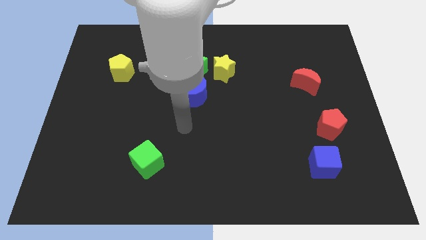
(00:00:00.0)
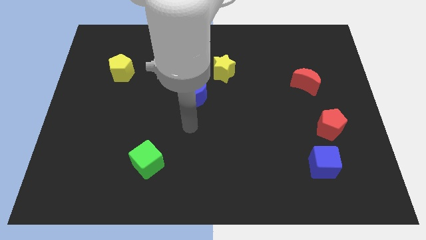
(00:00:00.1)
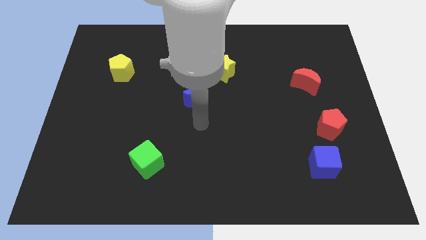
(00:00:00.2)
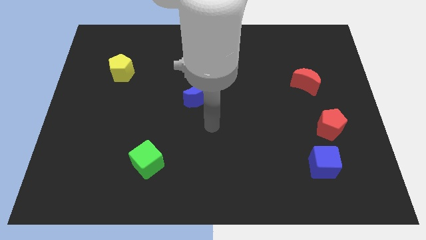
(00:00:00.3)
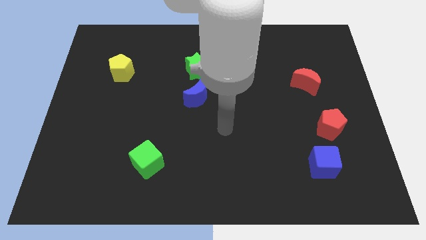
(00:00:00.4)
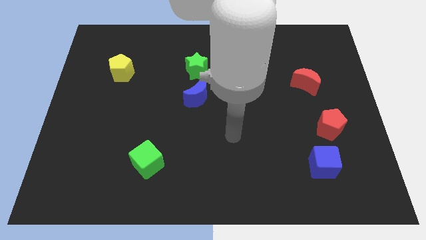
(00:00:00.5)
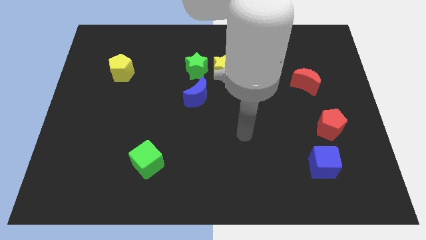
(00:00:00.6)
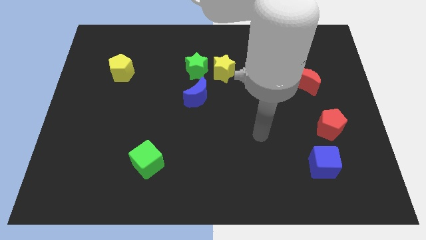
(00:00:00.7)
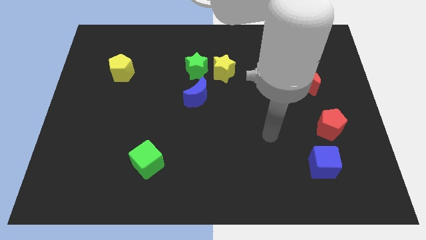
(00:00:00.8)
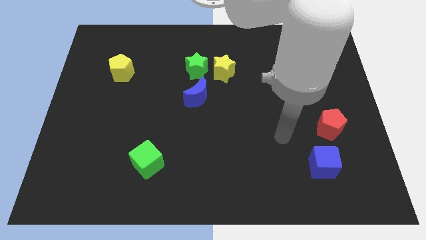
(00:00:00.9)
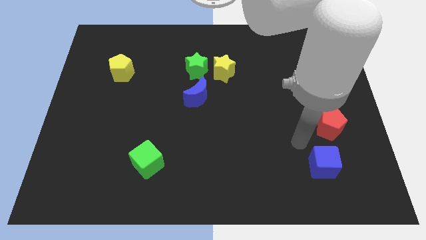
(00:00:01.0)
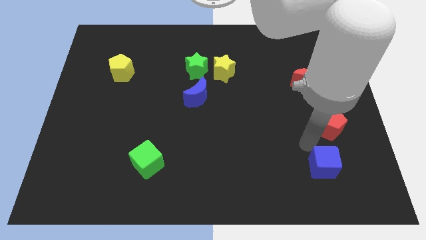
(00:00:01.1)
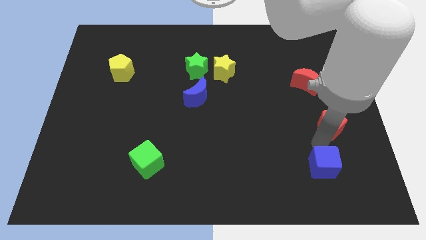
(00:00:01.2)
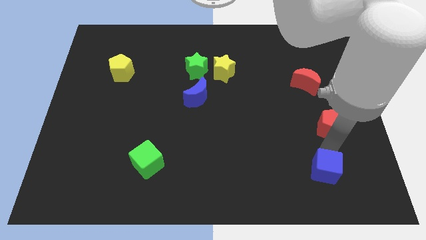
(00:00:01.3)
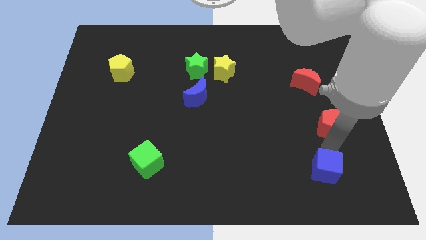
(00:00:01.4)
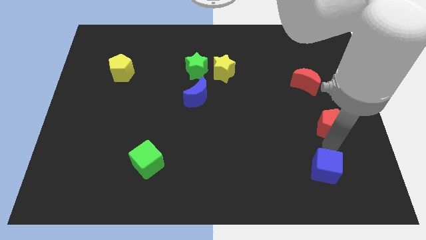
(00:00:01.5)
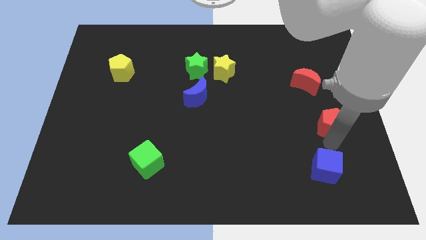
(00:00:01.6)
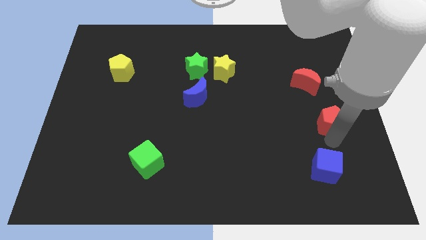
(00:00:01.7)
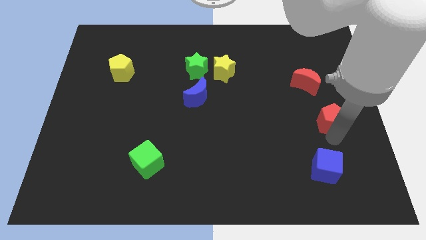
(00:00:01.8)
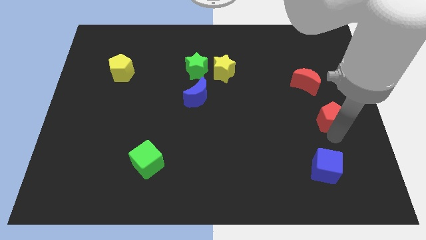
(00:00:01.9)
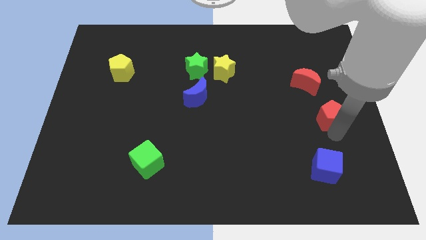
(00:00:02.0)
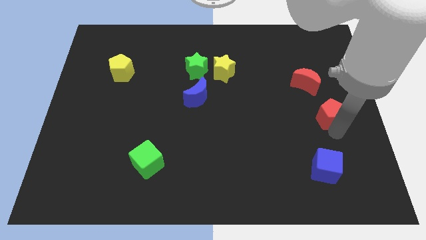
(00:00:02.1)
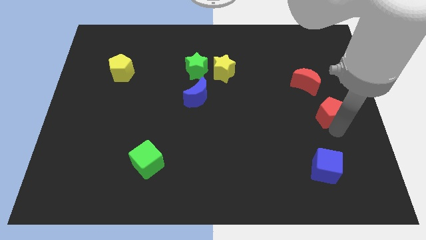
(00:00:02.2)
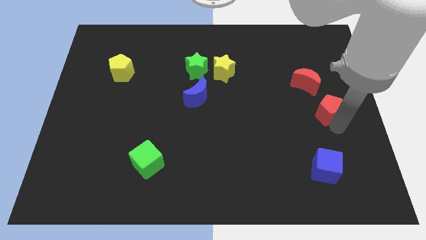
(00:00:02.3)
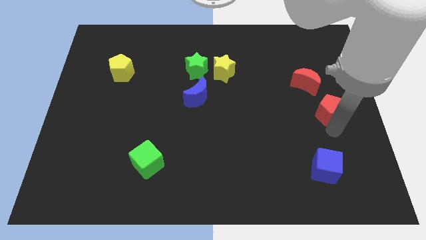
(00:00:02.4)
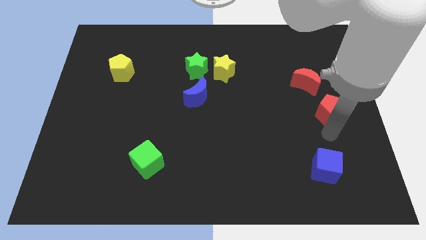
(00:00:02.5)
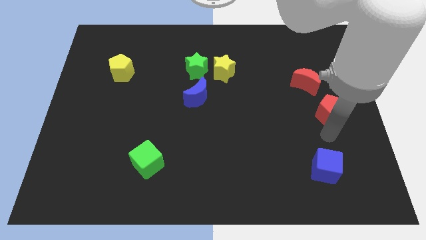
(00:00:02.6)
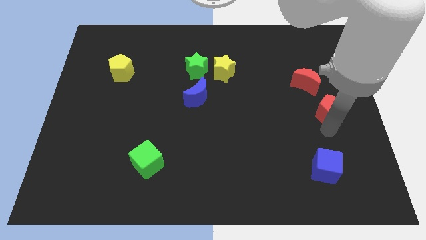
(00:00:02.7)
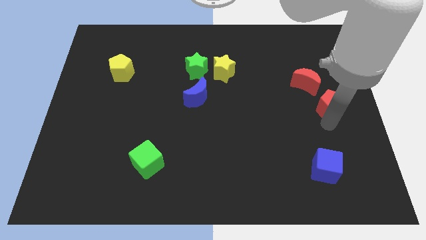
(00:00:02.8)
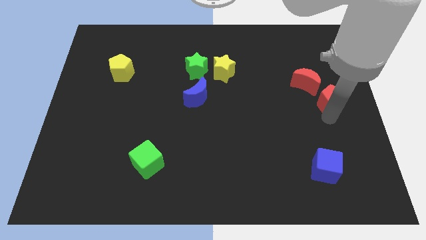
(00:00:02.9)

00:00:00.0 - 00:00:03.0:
slightly move the red pentagon upwards

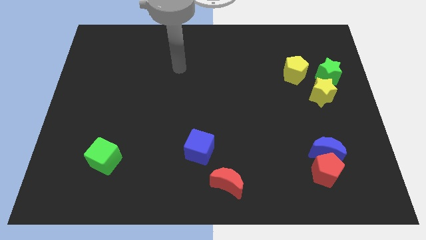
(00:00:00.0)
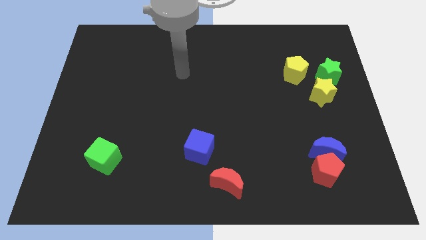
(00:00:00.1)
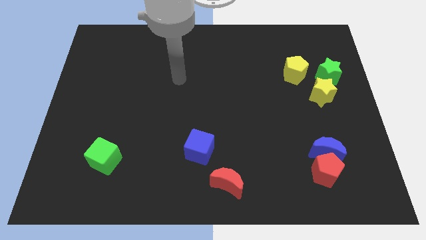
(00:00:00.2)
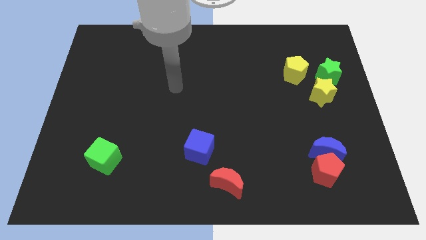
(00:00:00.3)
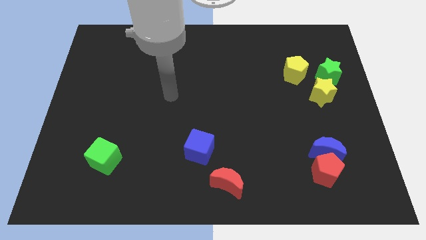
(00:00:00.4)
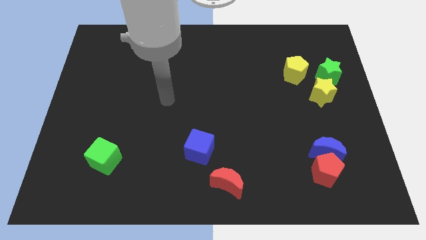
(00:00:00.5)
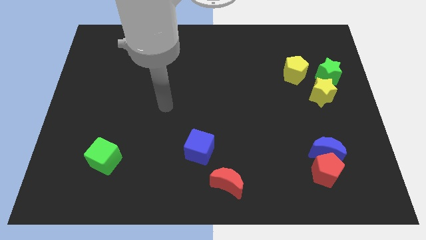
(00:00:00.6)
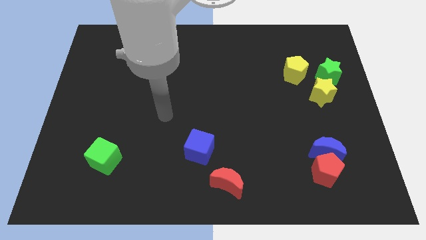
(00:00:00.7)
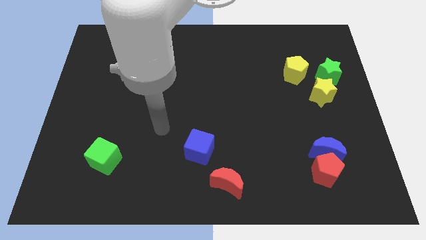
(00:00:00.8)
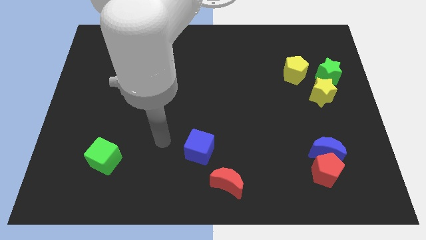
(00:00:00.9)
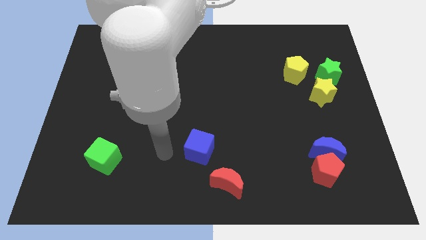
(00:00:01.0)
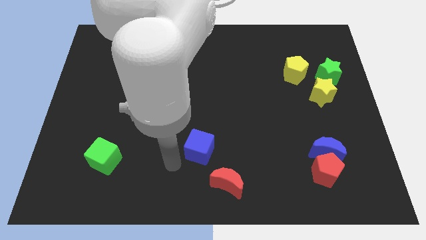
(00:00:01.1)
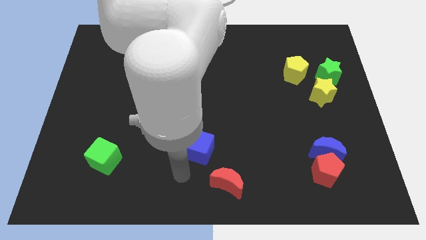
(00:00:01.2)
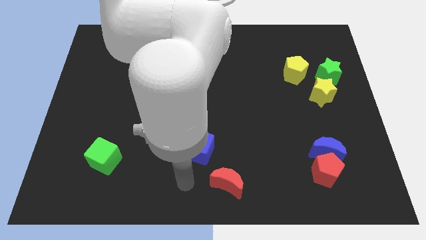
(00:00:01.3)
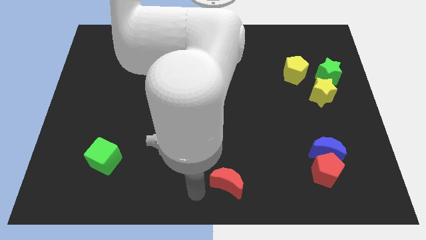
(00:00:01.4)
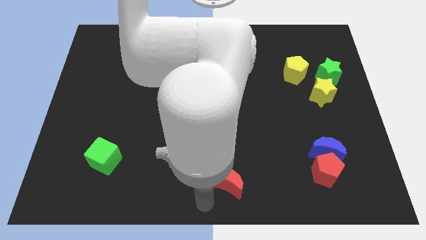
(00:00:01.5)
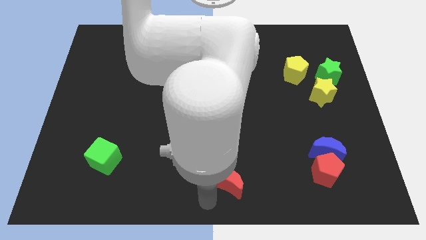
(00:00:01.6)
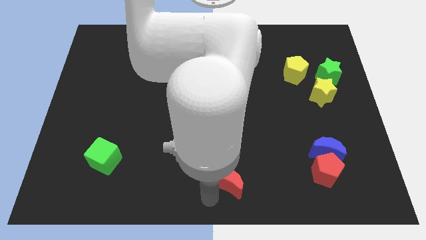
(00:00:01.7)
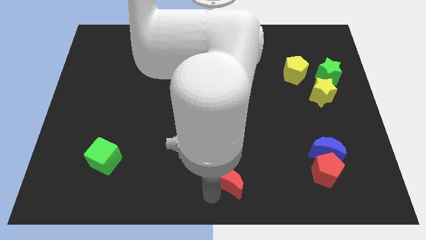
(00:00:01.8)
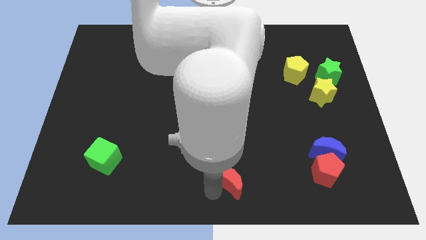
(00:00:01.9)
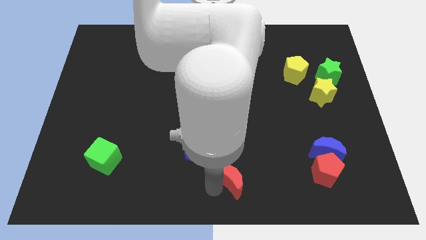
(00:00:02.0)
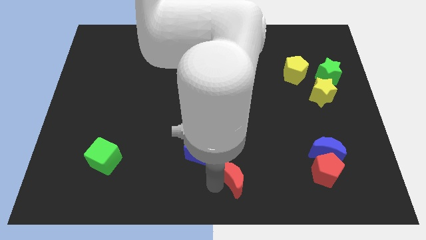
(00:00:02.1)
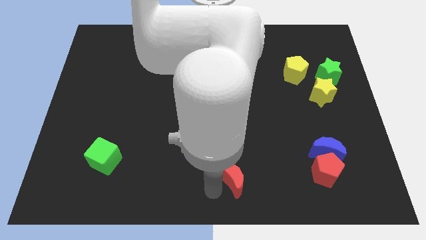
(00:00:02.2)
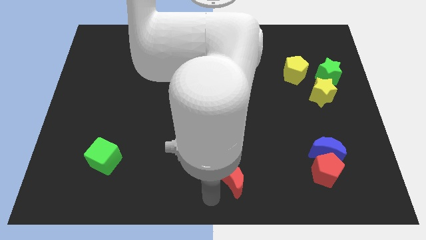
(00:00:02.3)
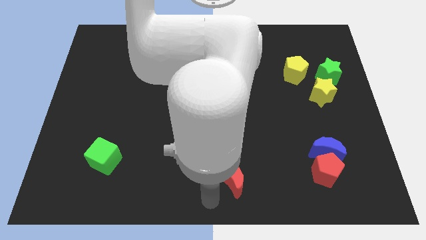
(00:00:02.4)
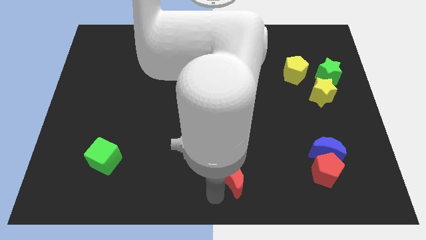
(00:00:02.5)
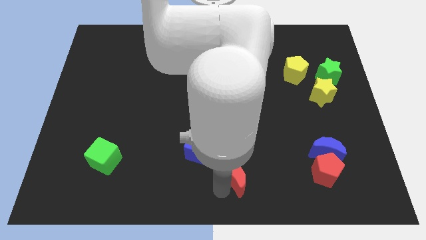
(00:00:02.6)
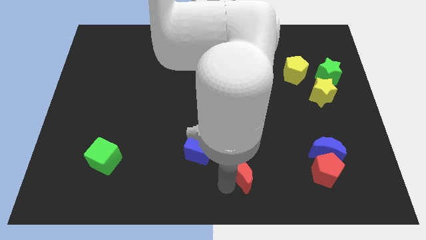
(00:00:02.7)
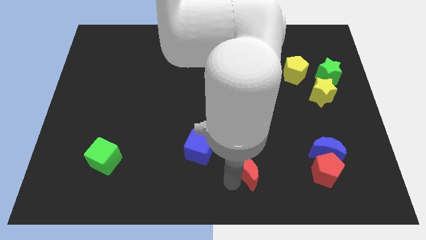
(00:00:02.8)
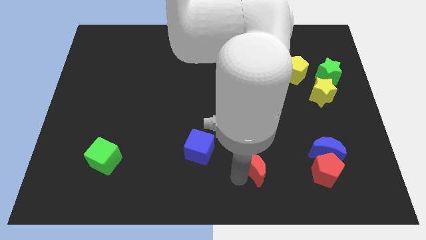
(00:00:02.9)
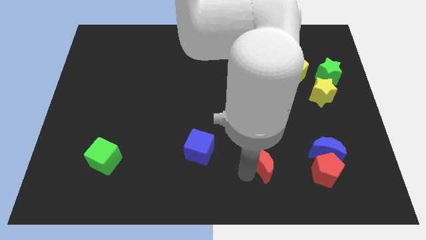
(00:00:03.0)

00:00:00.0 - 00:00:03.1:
slightly move the red moon up and right

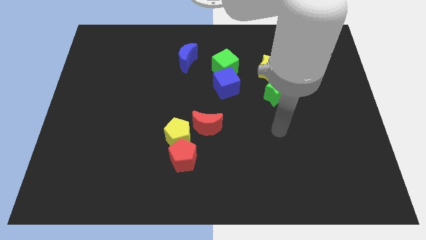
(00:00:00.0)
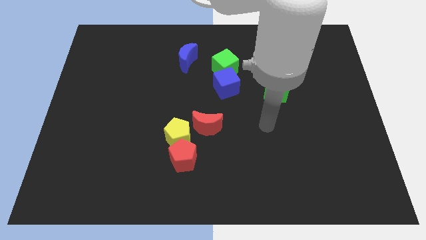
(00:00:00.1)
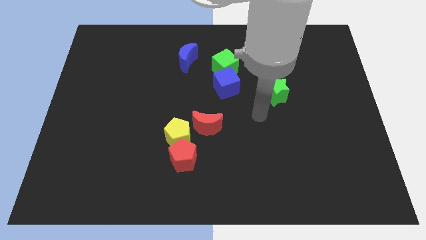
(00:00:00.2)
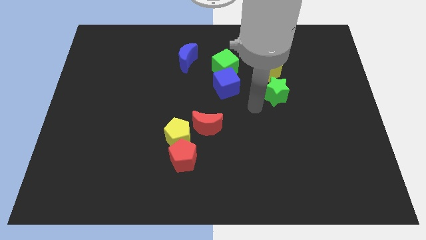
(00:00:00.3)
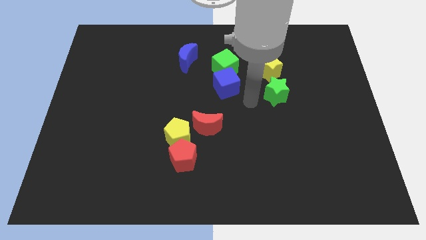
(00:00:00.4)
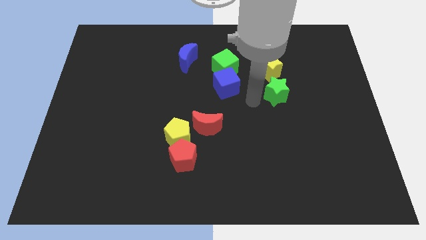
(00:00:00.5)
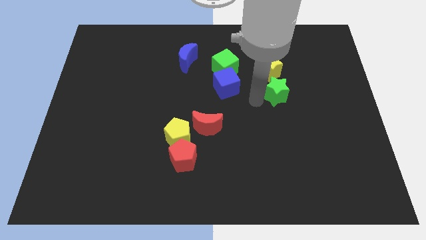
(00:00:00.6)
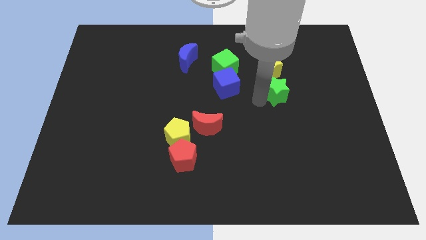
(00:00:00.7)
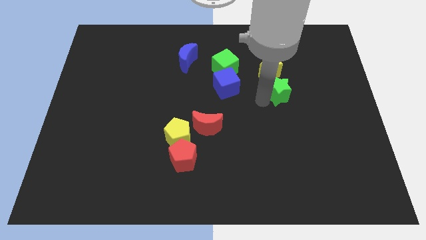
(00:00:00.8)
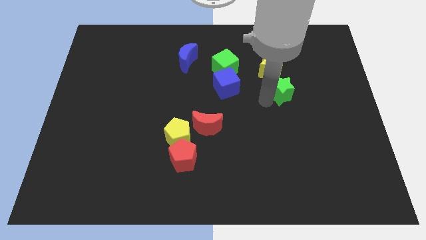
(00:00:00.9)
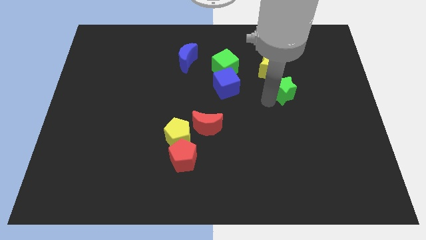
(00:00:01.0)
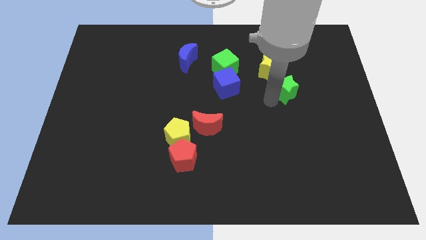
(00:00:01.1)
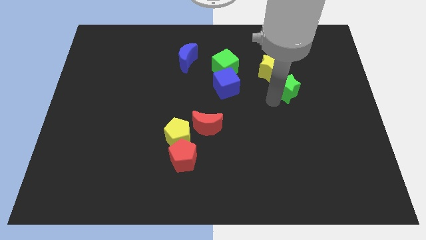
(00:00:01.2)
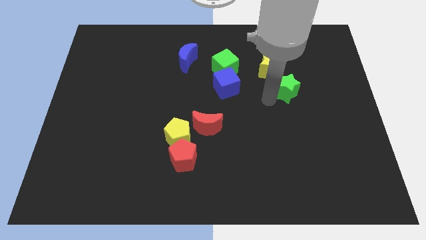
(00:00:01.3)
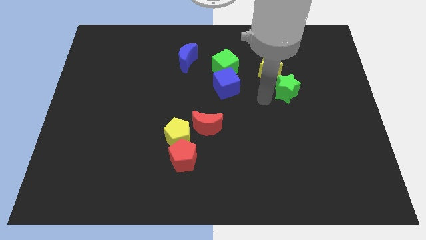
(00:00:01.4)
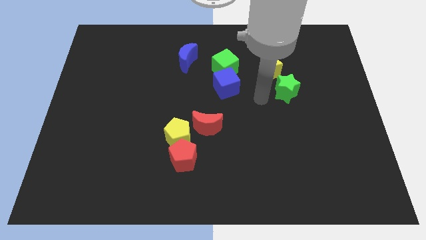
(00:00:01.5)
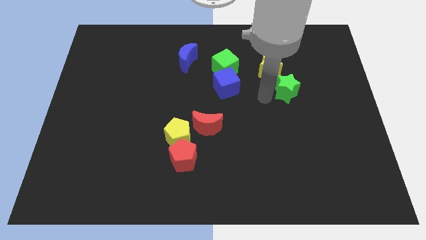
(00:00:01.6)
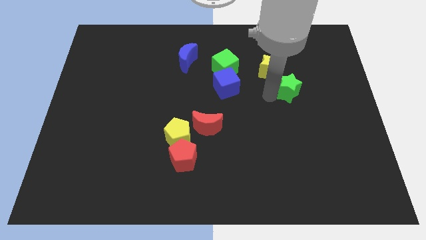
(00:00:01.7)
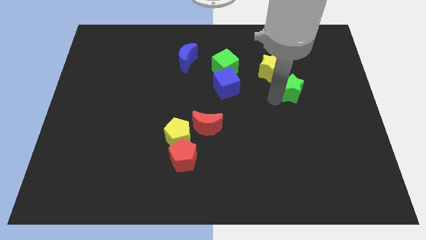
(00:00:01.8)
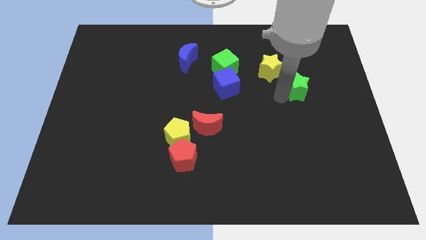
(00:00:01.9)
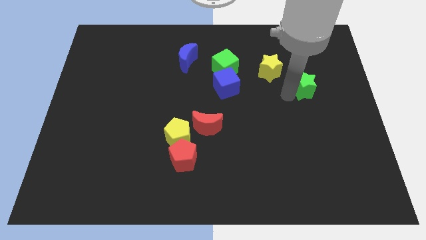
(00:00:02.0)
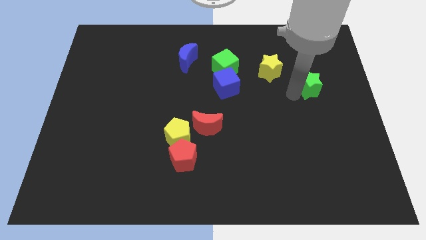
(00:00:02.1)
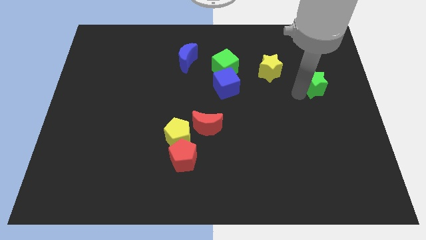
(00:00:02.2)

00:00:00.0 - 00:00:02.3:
slightly move the green star diagonally upwards and right

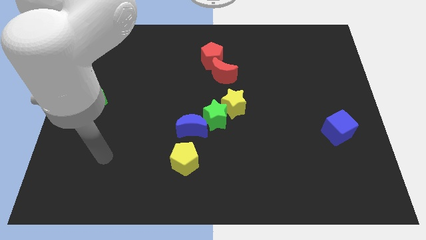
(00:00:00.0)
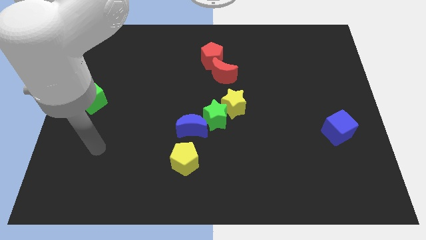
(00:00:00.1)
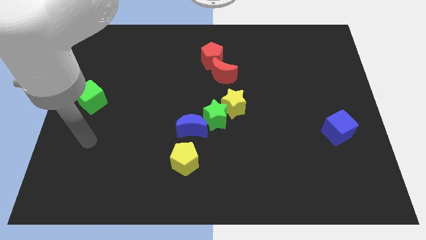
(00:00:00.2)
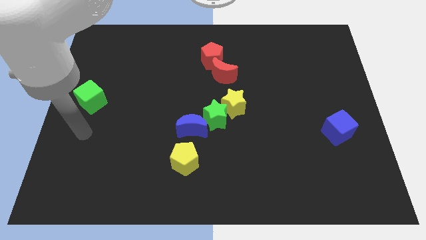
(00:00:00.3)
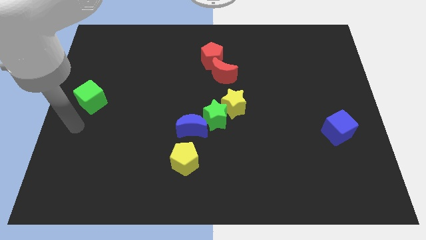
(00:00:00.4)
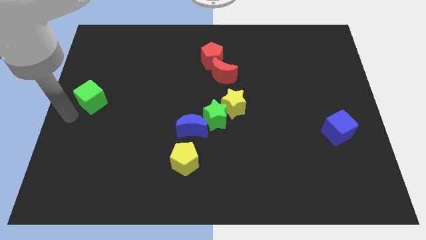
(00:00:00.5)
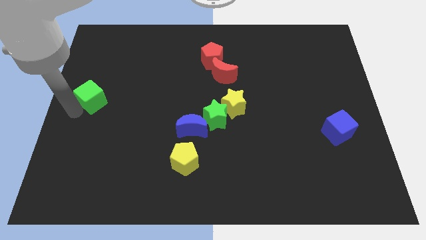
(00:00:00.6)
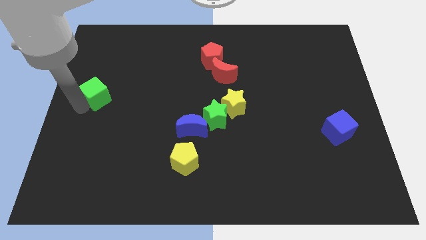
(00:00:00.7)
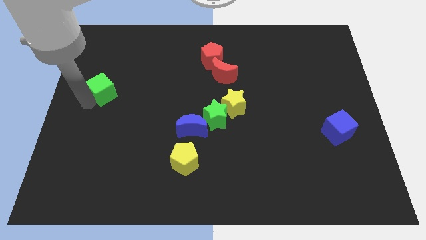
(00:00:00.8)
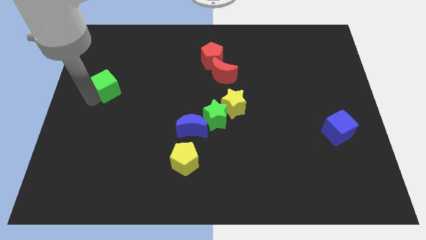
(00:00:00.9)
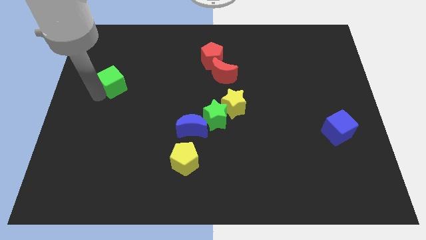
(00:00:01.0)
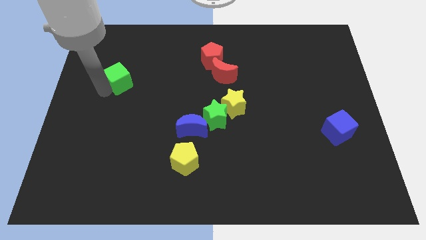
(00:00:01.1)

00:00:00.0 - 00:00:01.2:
move the green cube a bit diagonally upwards and to the right
